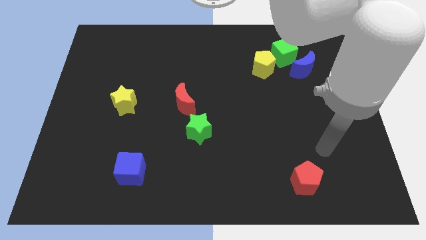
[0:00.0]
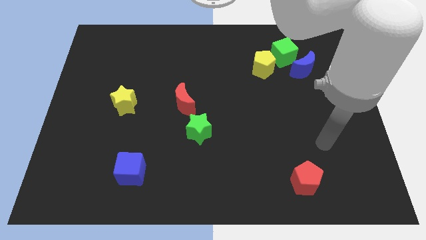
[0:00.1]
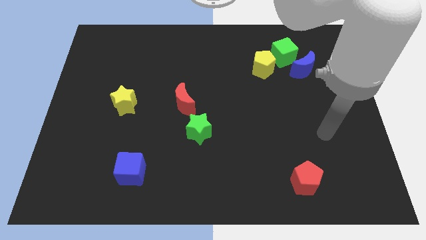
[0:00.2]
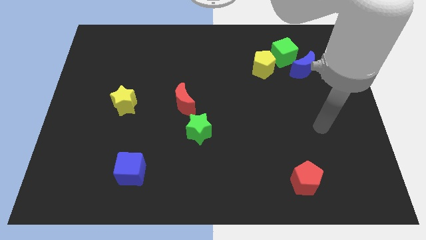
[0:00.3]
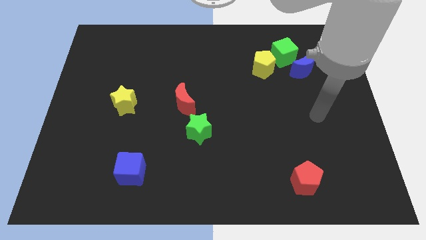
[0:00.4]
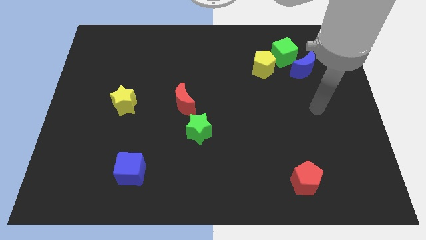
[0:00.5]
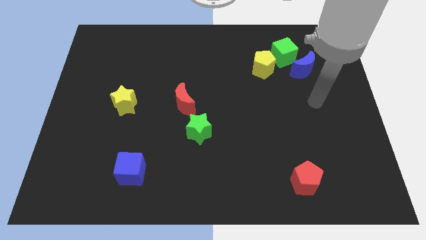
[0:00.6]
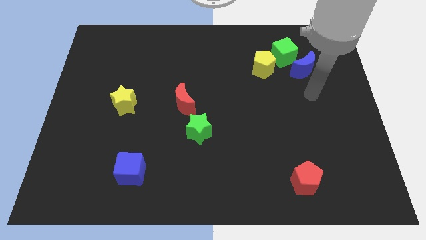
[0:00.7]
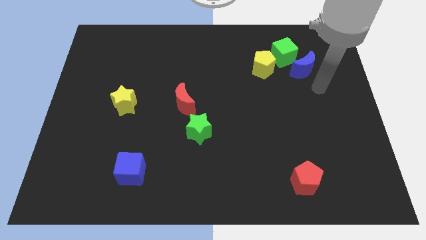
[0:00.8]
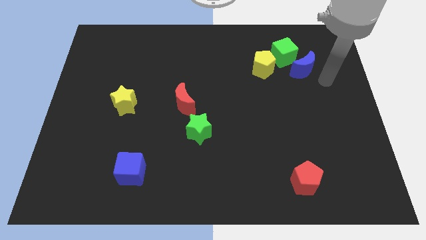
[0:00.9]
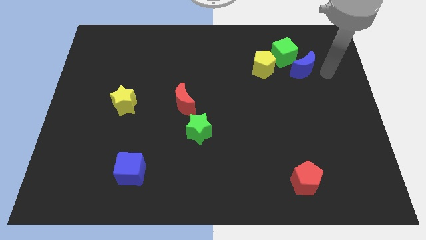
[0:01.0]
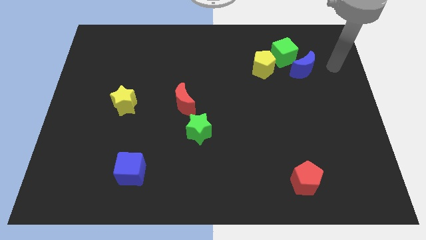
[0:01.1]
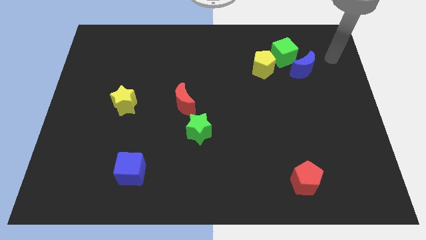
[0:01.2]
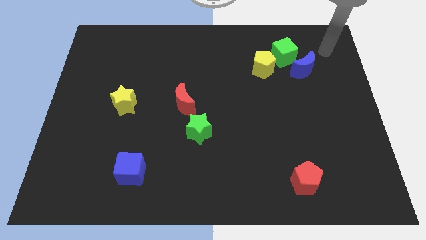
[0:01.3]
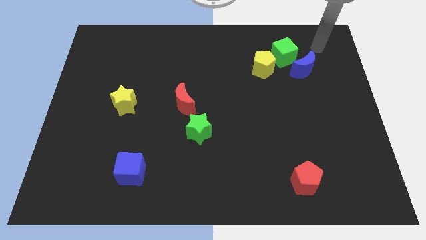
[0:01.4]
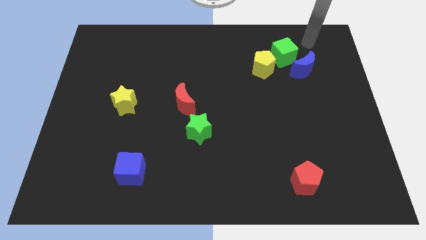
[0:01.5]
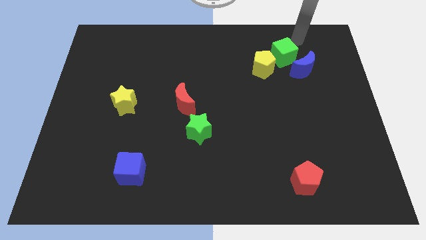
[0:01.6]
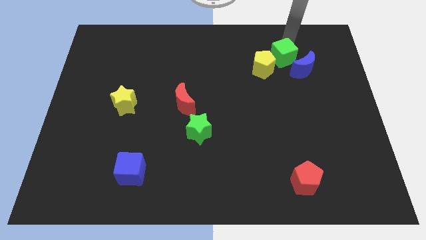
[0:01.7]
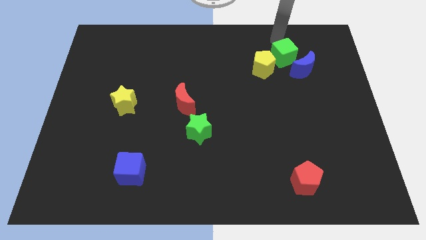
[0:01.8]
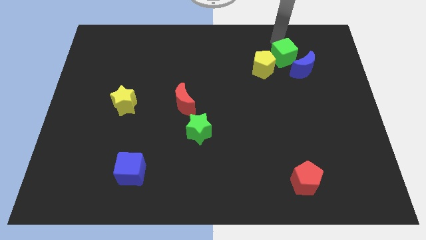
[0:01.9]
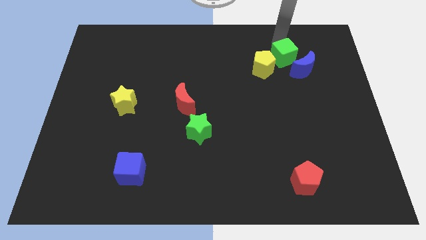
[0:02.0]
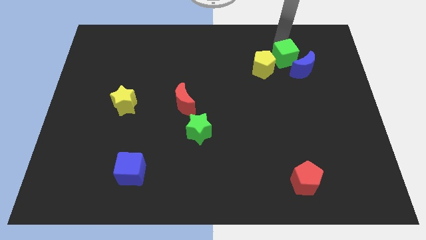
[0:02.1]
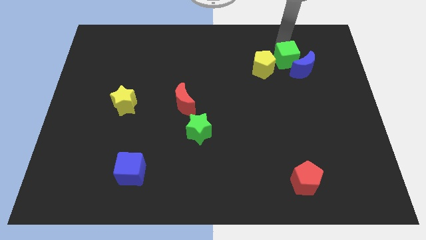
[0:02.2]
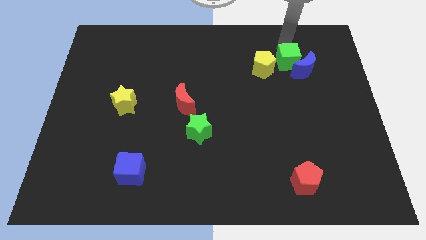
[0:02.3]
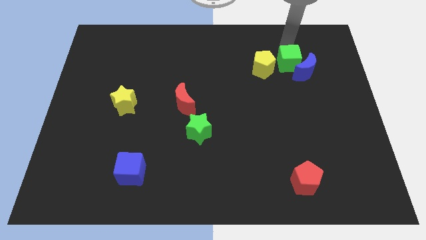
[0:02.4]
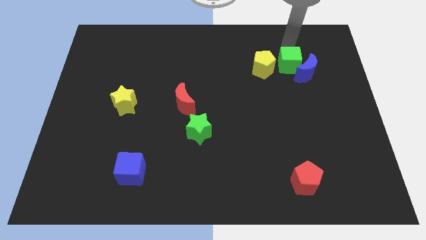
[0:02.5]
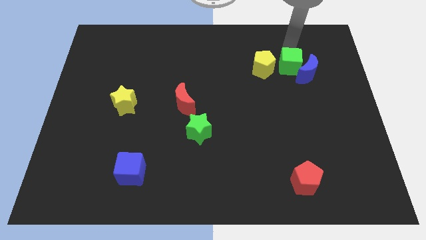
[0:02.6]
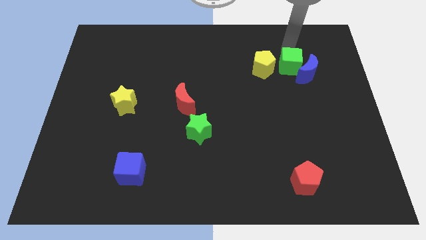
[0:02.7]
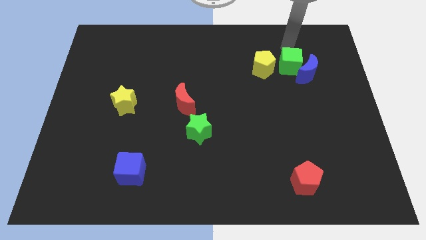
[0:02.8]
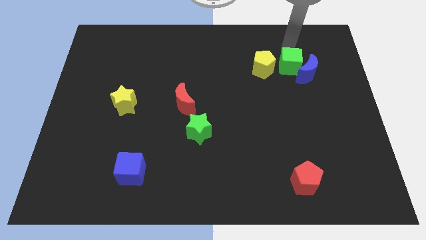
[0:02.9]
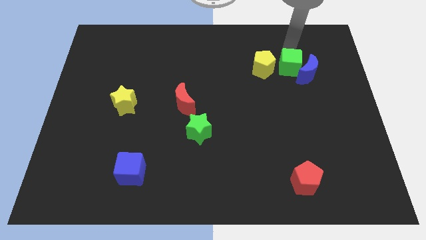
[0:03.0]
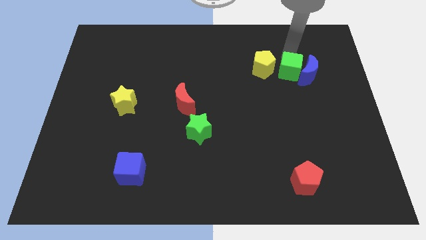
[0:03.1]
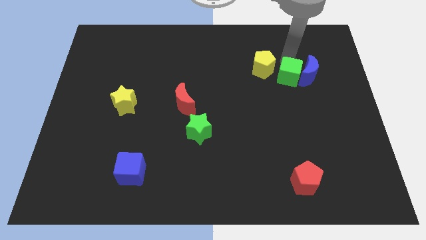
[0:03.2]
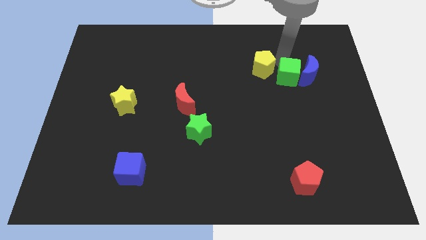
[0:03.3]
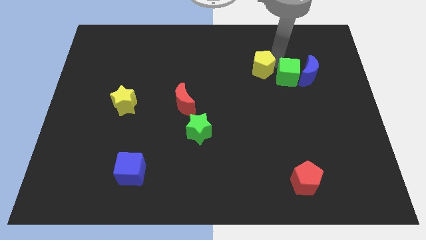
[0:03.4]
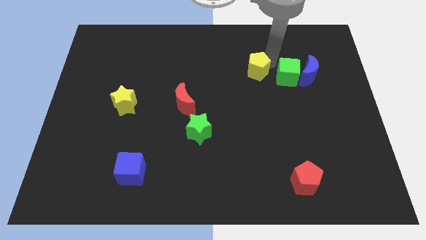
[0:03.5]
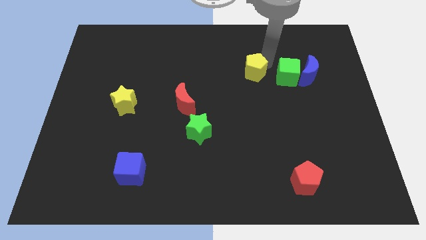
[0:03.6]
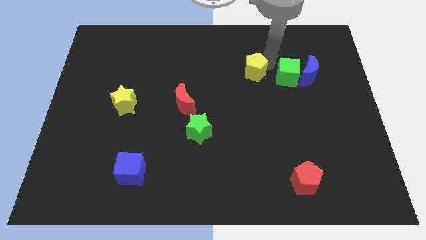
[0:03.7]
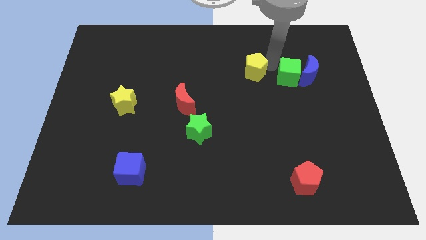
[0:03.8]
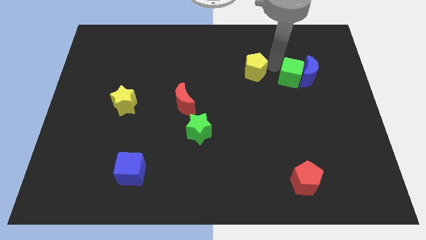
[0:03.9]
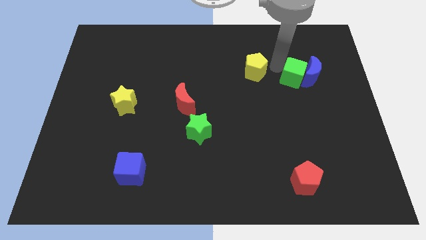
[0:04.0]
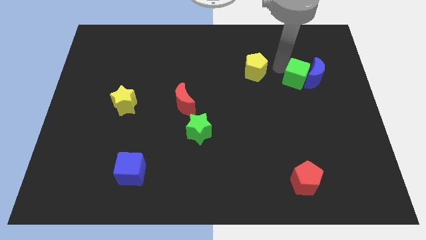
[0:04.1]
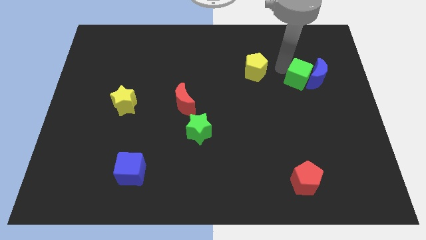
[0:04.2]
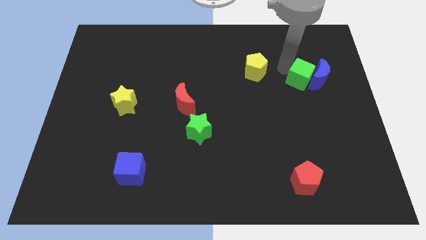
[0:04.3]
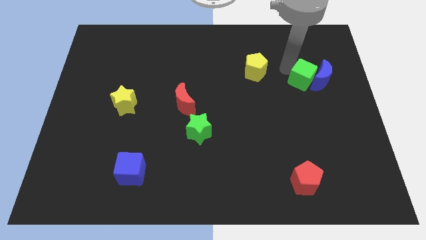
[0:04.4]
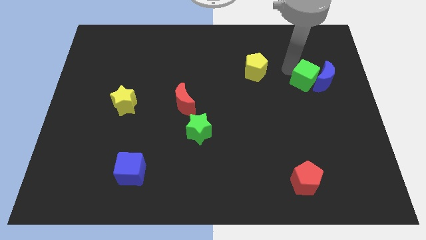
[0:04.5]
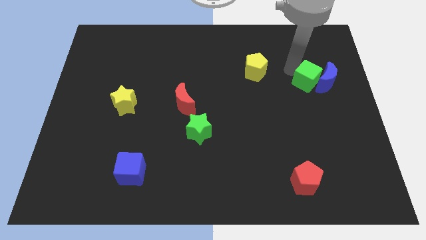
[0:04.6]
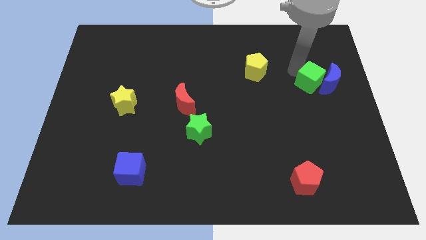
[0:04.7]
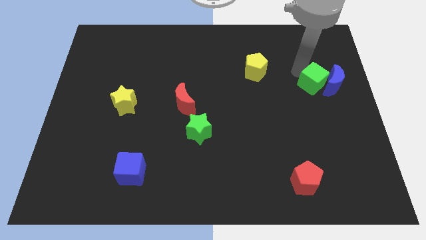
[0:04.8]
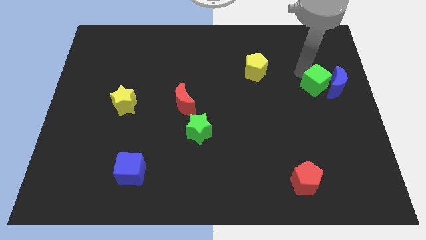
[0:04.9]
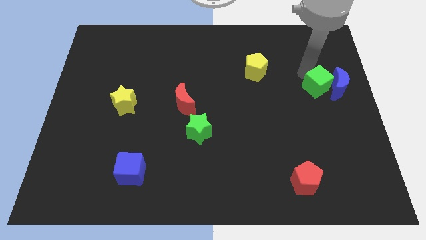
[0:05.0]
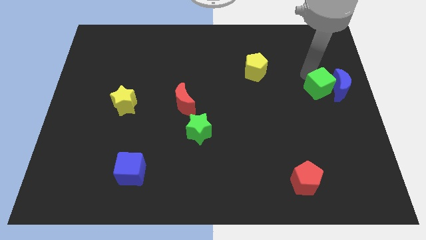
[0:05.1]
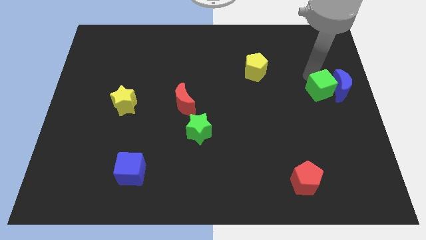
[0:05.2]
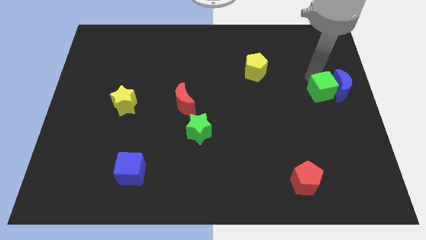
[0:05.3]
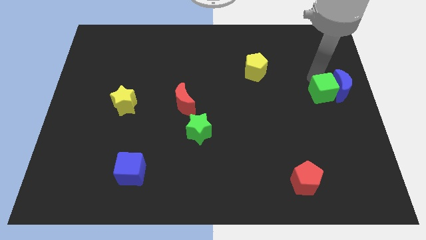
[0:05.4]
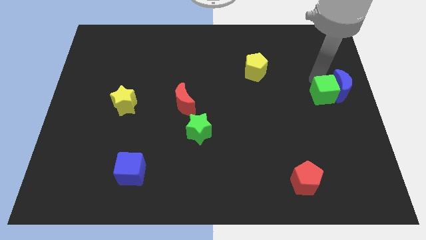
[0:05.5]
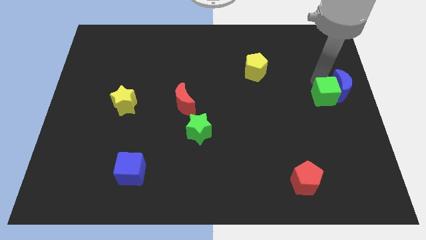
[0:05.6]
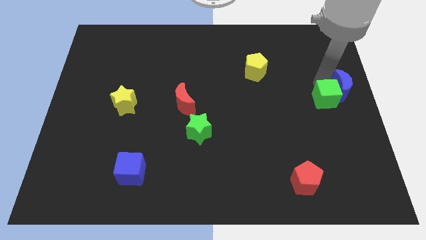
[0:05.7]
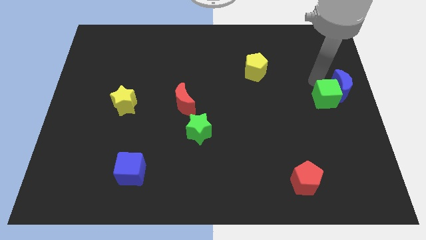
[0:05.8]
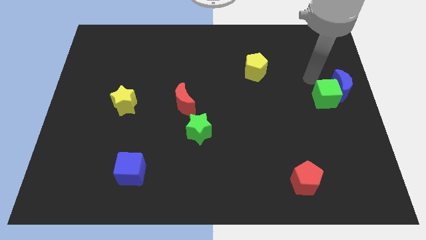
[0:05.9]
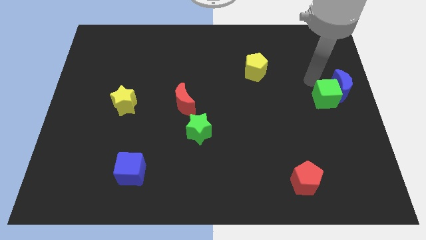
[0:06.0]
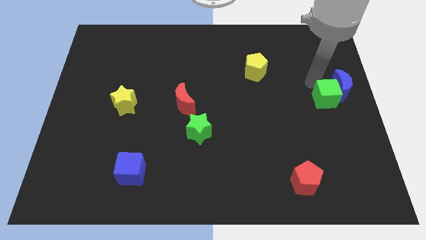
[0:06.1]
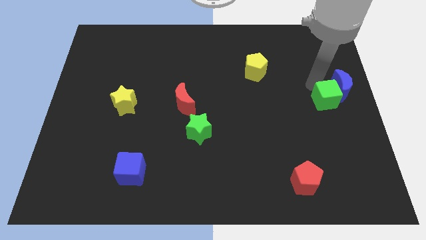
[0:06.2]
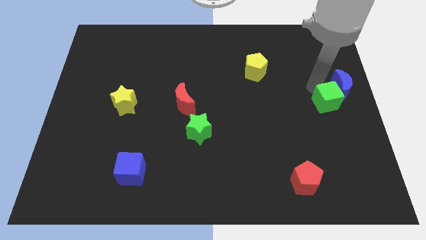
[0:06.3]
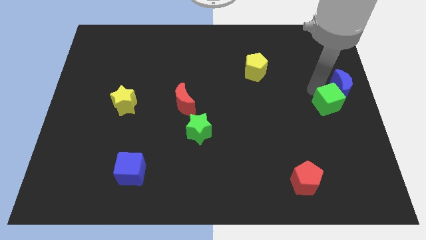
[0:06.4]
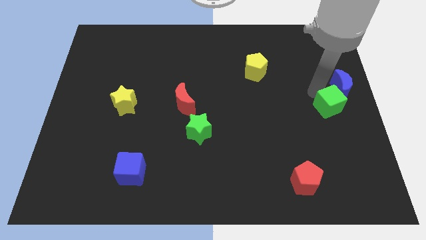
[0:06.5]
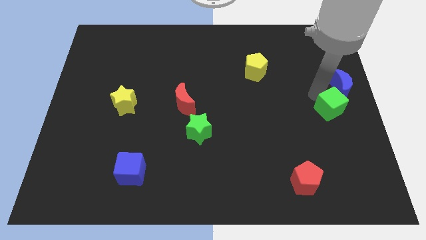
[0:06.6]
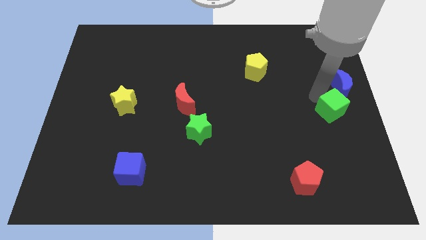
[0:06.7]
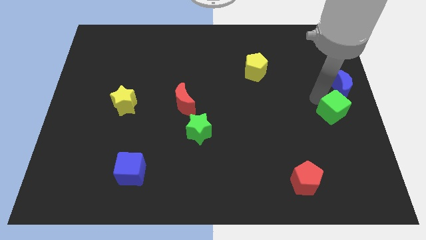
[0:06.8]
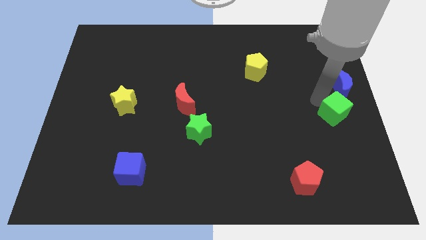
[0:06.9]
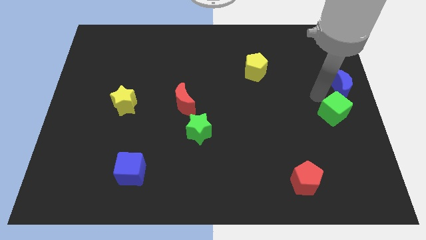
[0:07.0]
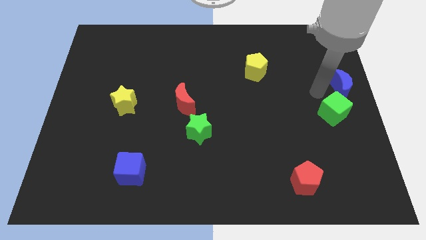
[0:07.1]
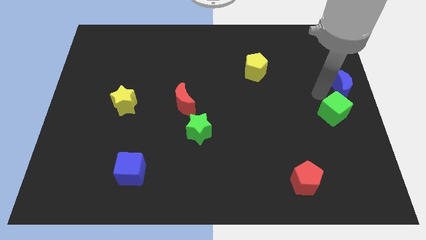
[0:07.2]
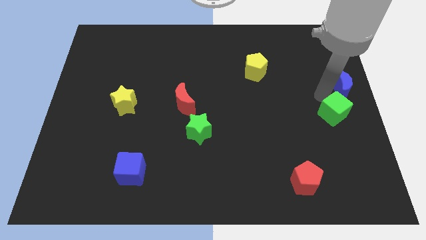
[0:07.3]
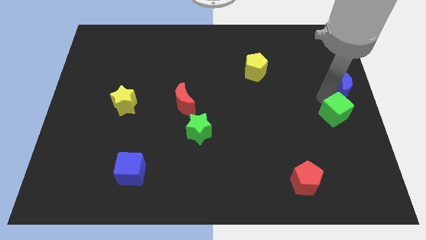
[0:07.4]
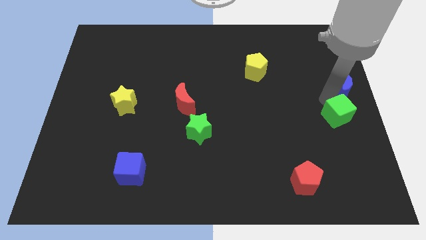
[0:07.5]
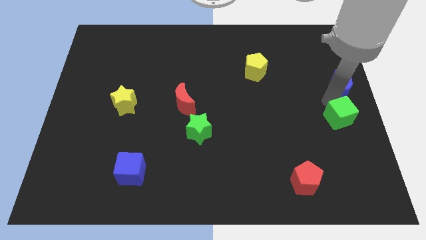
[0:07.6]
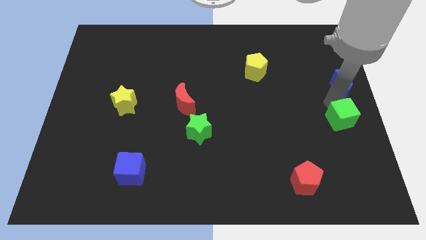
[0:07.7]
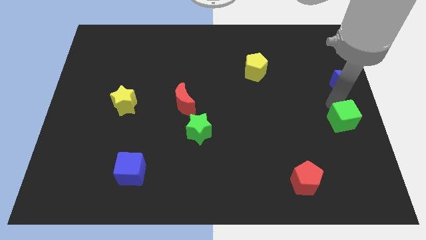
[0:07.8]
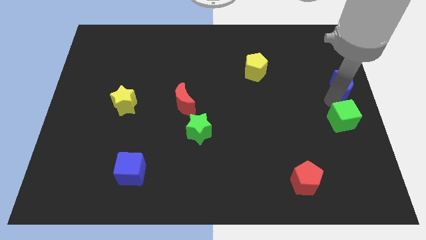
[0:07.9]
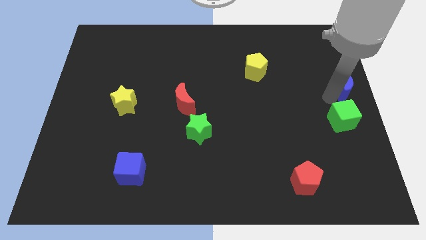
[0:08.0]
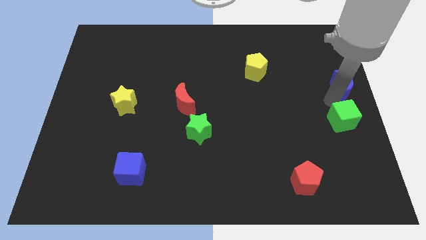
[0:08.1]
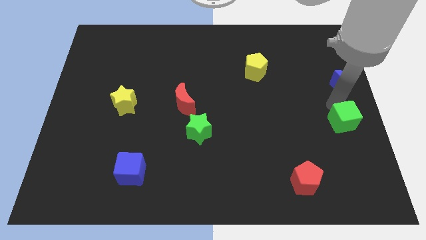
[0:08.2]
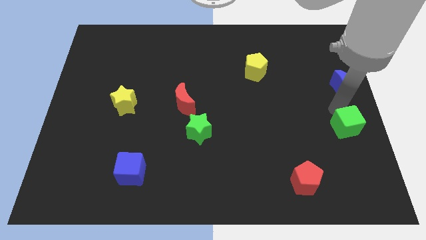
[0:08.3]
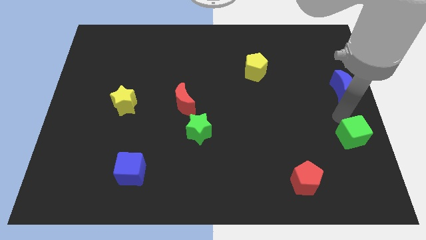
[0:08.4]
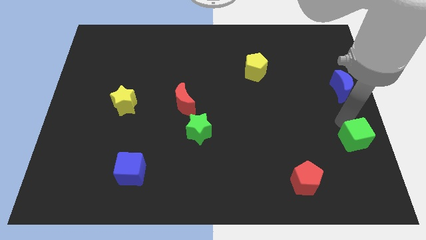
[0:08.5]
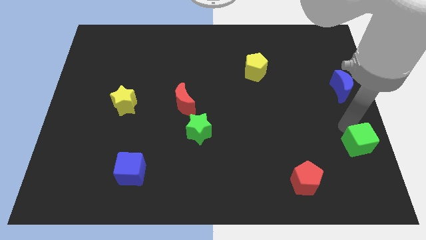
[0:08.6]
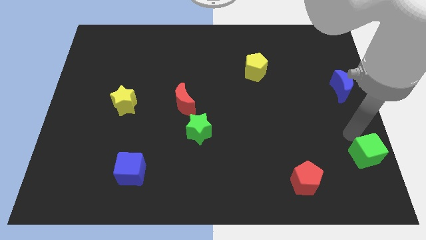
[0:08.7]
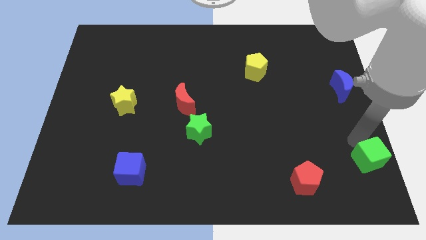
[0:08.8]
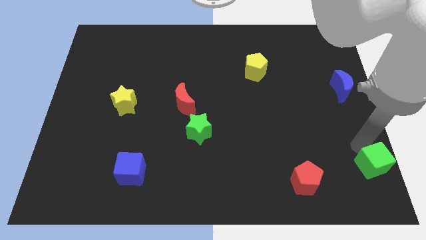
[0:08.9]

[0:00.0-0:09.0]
push the green cube to the bottom right
